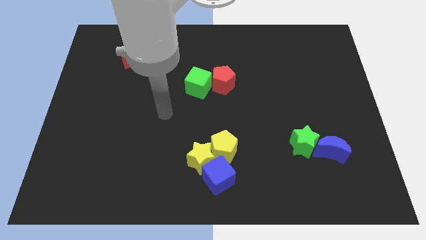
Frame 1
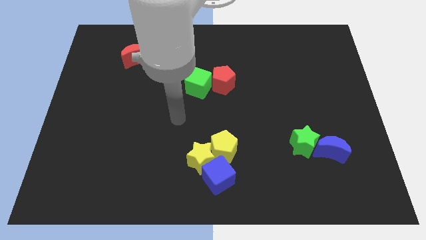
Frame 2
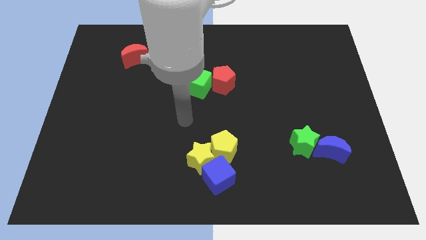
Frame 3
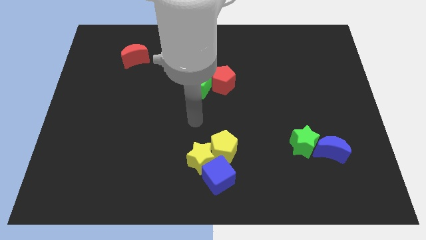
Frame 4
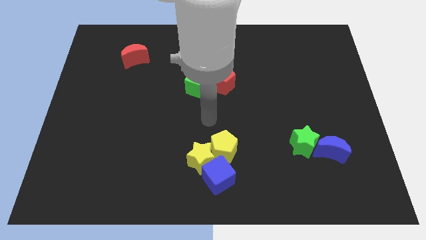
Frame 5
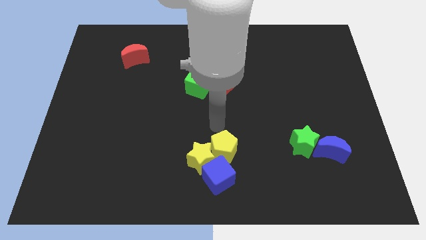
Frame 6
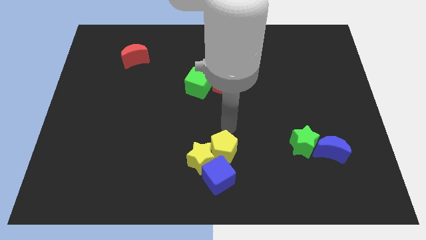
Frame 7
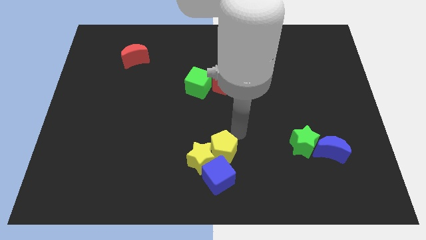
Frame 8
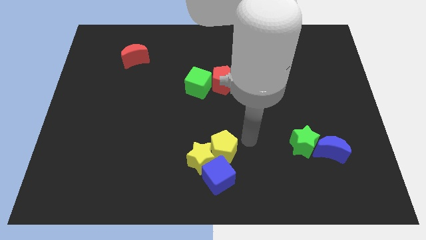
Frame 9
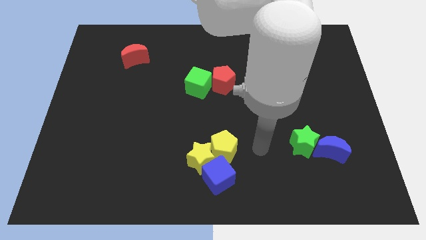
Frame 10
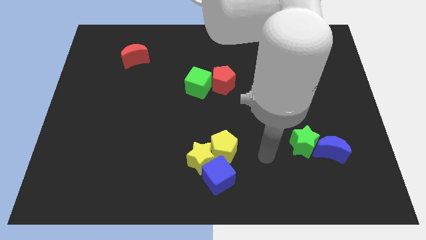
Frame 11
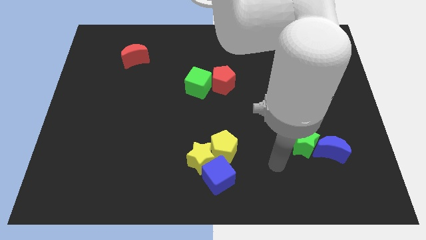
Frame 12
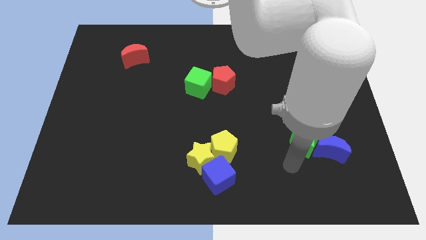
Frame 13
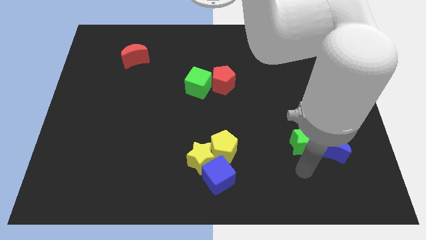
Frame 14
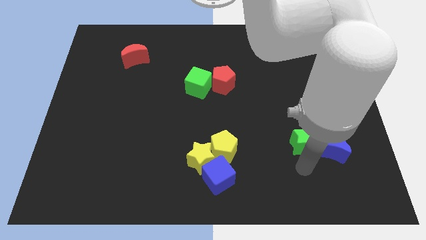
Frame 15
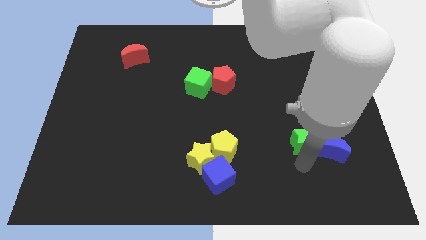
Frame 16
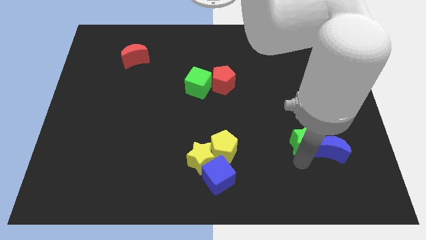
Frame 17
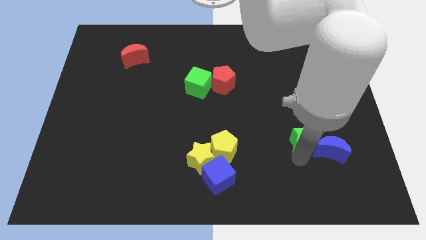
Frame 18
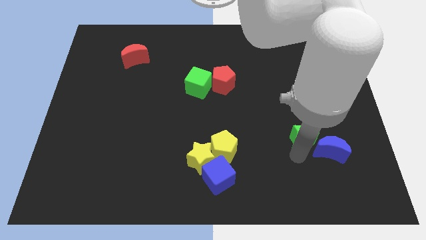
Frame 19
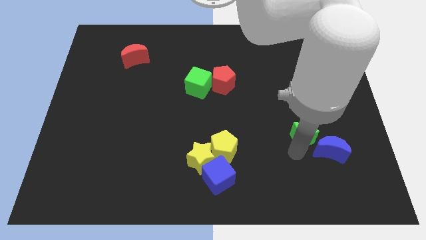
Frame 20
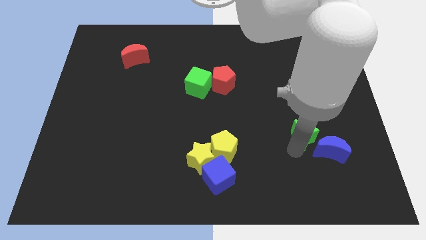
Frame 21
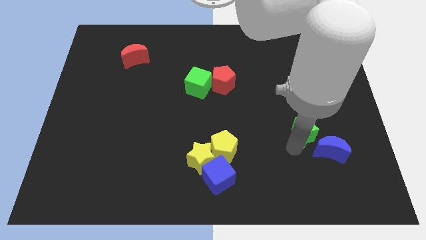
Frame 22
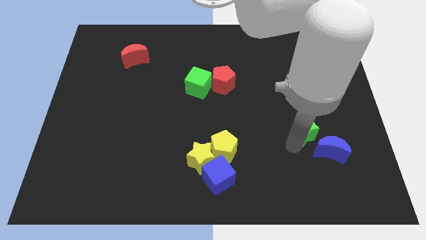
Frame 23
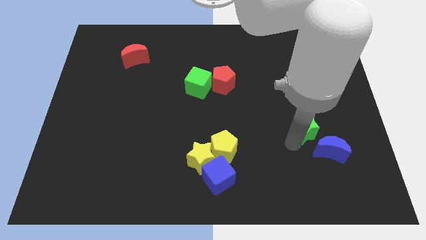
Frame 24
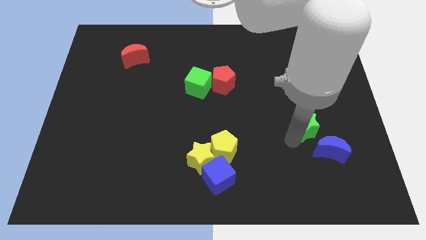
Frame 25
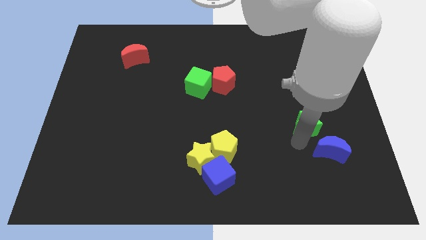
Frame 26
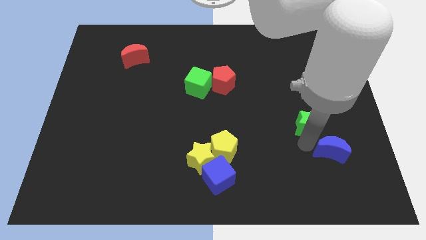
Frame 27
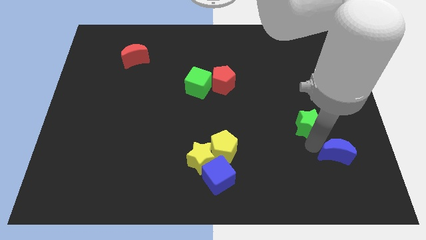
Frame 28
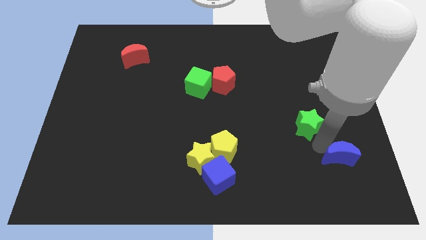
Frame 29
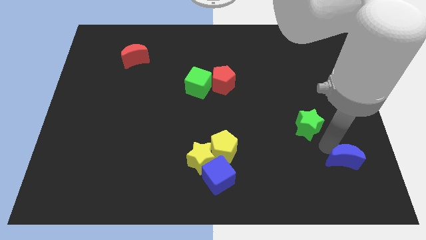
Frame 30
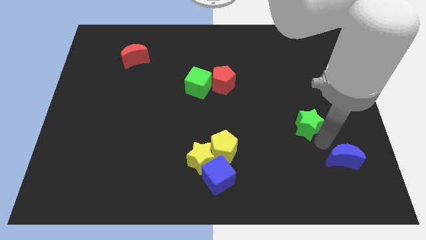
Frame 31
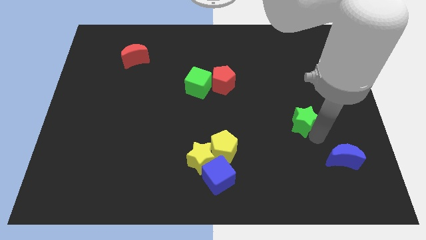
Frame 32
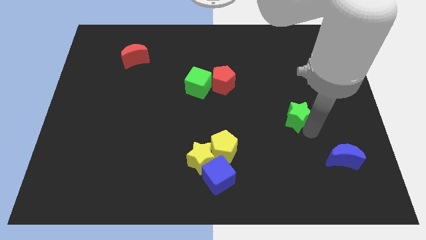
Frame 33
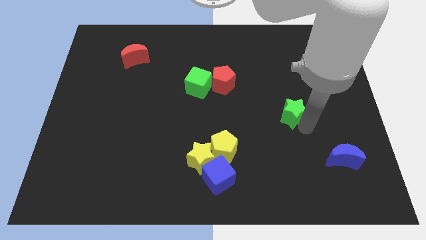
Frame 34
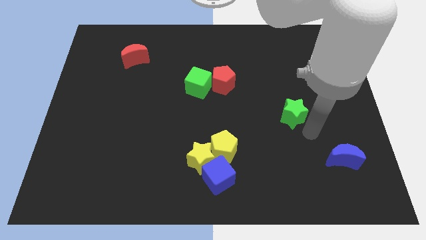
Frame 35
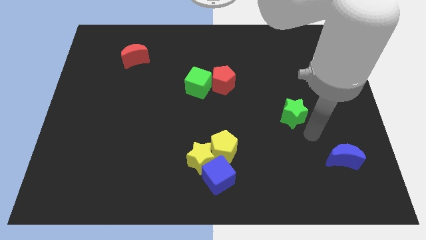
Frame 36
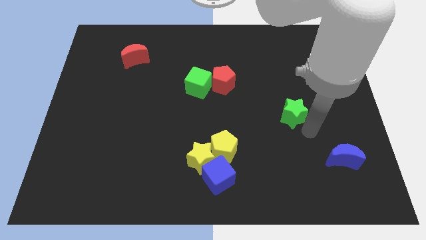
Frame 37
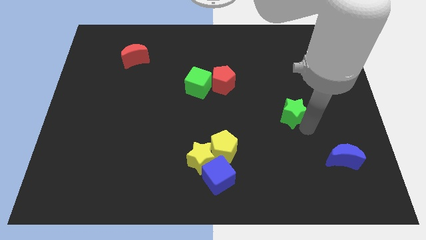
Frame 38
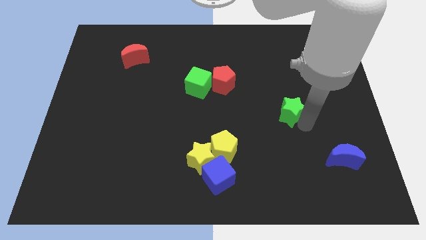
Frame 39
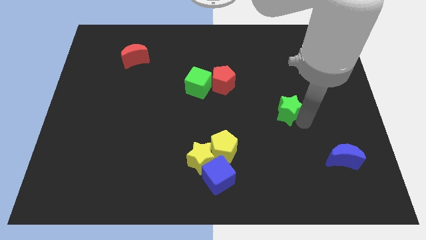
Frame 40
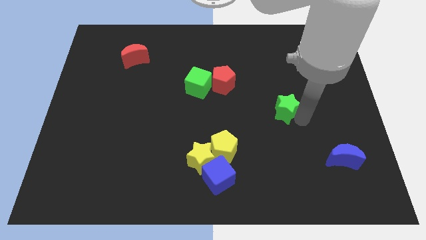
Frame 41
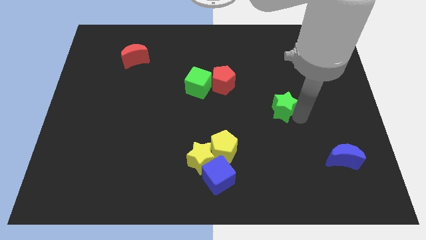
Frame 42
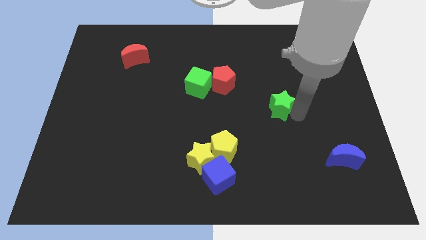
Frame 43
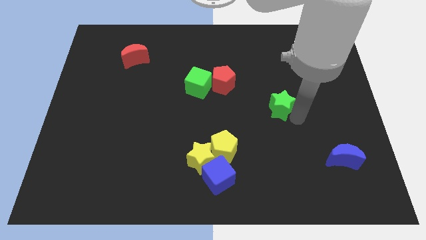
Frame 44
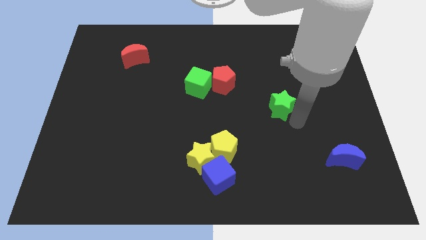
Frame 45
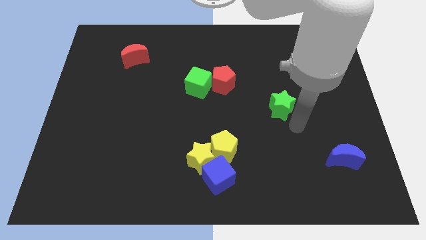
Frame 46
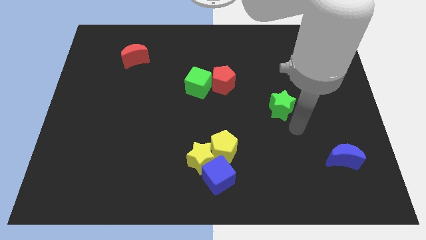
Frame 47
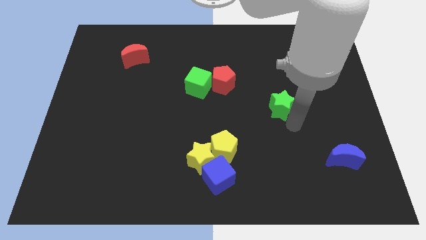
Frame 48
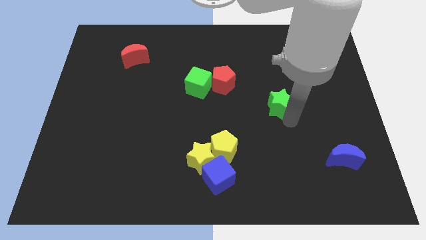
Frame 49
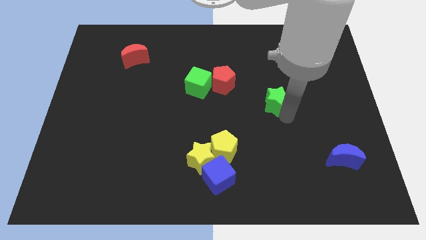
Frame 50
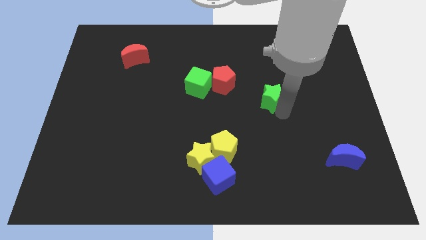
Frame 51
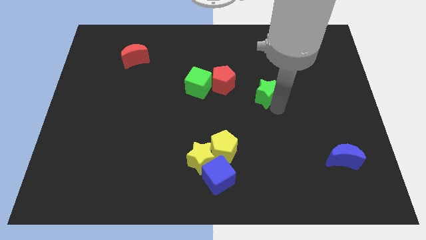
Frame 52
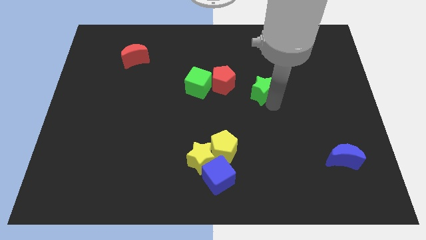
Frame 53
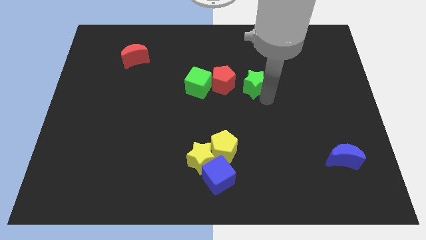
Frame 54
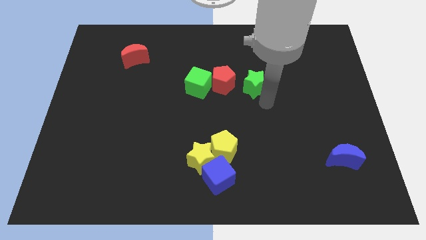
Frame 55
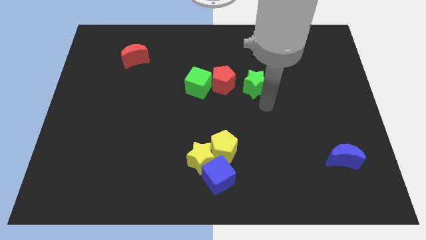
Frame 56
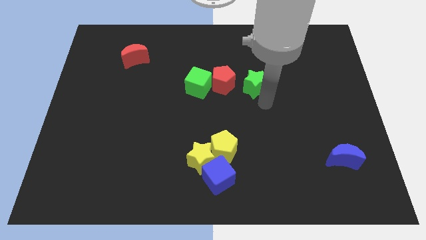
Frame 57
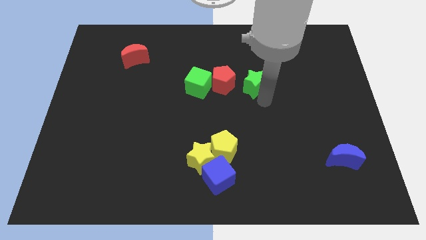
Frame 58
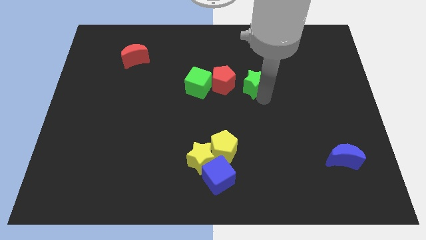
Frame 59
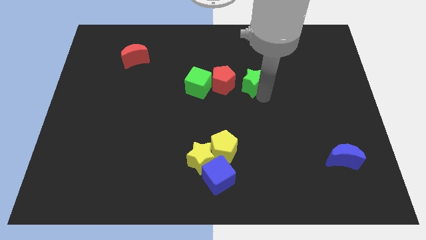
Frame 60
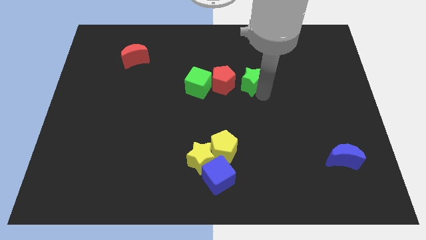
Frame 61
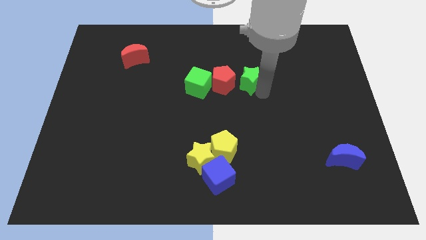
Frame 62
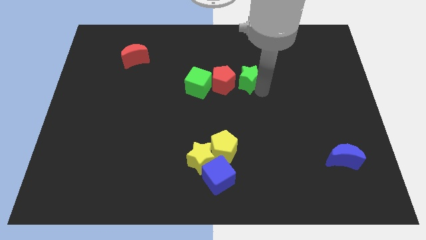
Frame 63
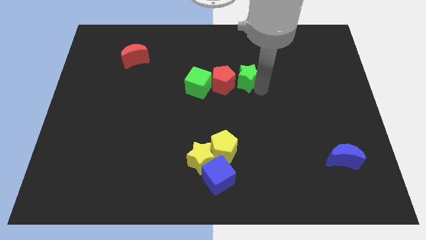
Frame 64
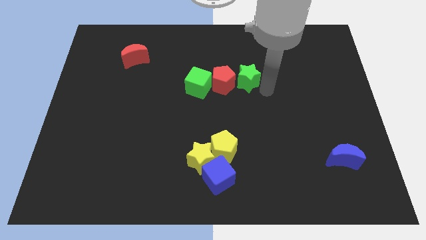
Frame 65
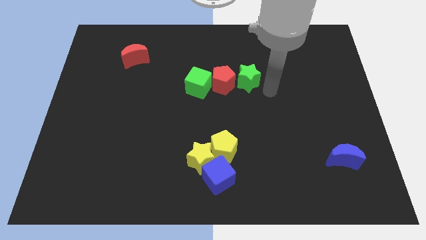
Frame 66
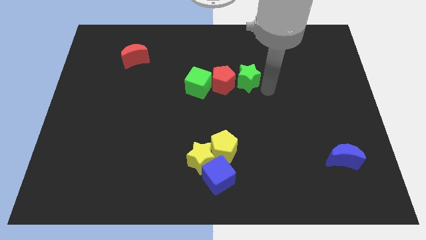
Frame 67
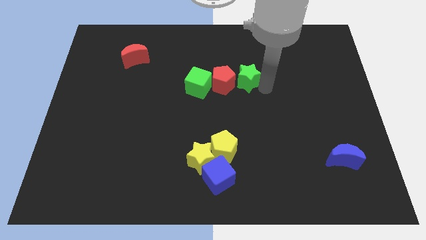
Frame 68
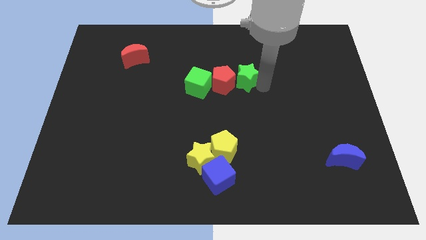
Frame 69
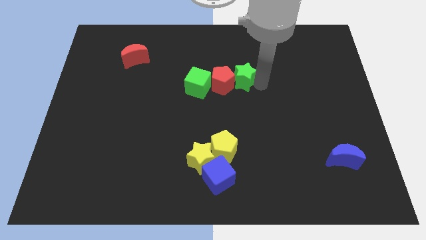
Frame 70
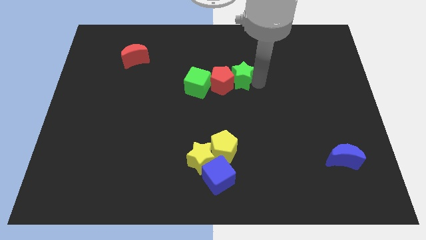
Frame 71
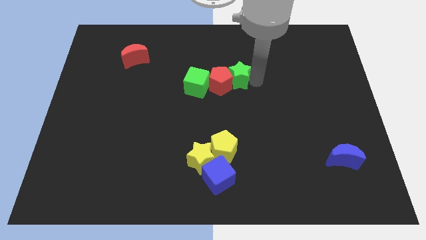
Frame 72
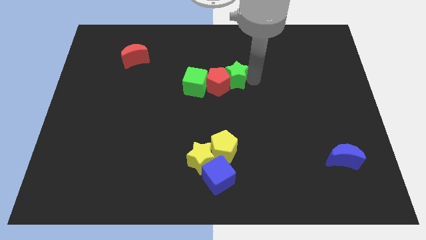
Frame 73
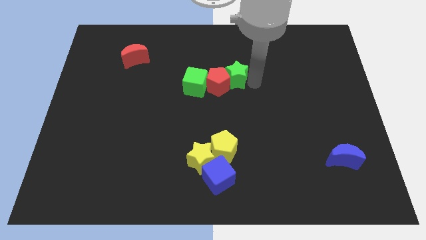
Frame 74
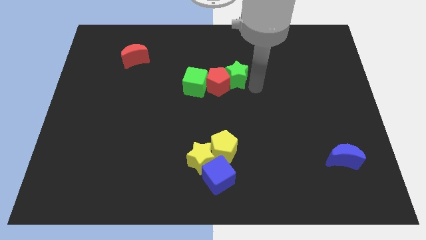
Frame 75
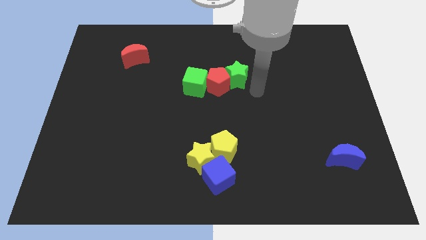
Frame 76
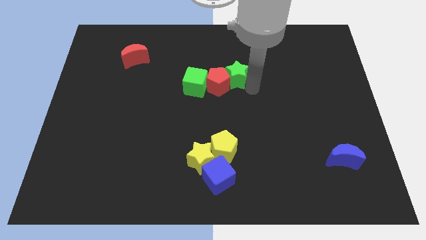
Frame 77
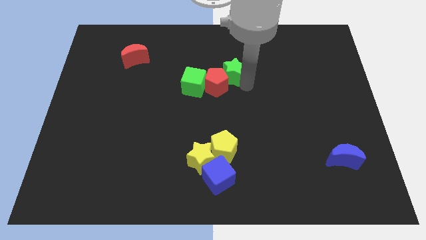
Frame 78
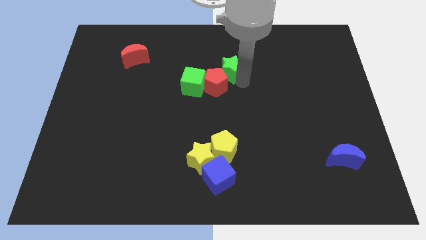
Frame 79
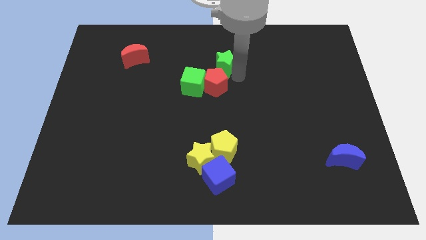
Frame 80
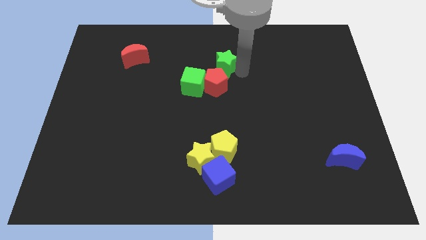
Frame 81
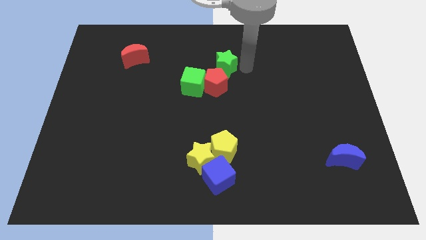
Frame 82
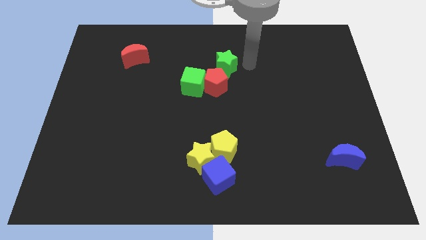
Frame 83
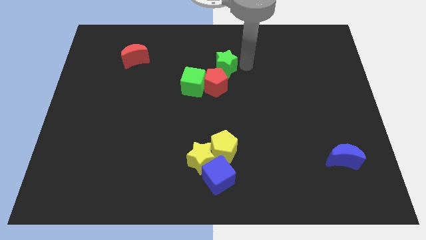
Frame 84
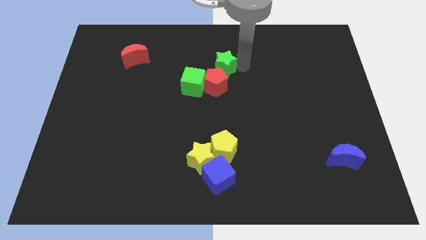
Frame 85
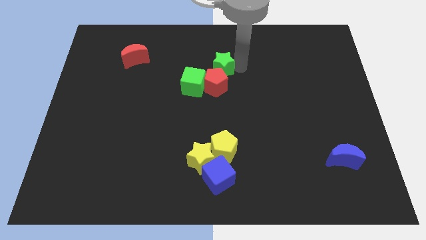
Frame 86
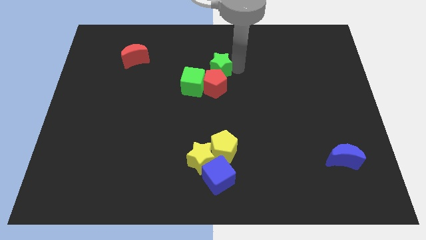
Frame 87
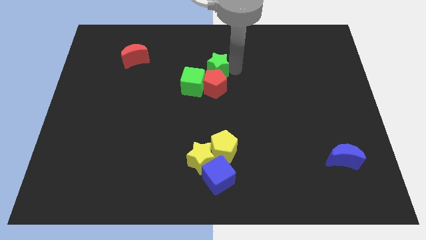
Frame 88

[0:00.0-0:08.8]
slide the green star diagonally up and to the left of the red pentagon
